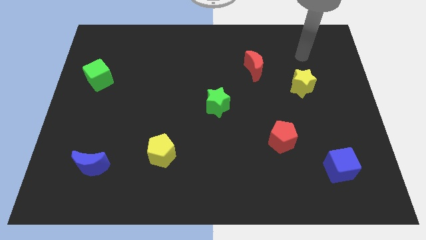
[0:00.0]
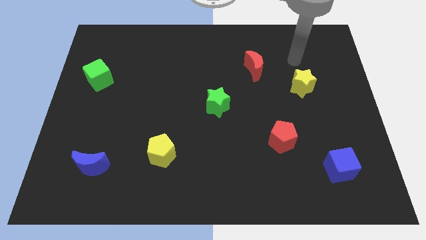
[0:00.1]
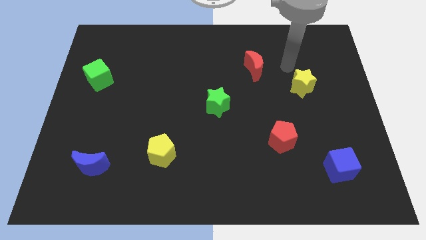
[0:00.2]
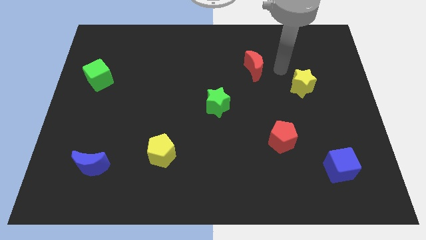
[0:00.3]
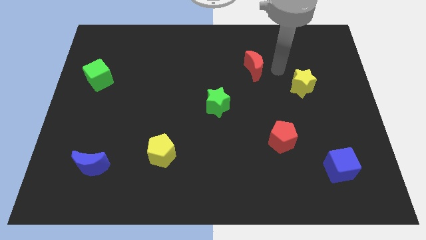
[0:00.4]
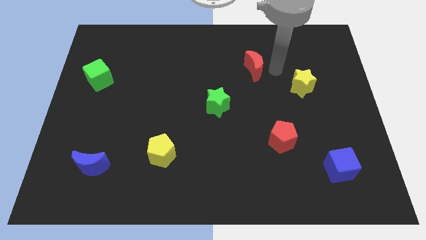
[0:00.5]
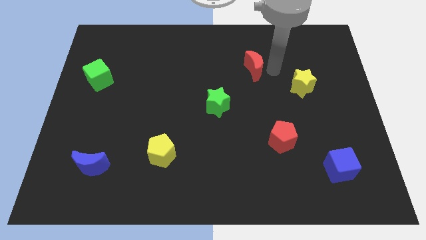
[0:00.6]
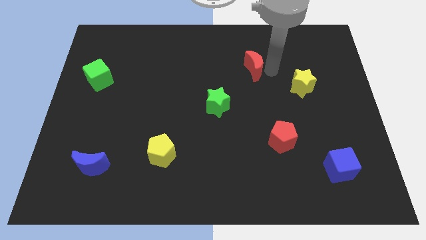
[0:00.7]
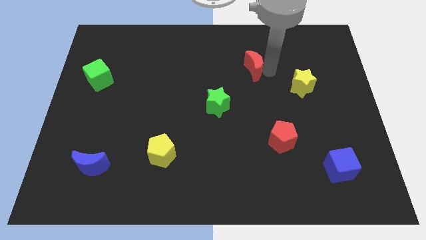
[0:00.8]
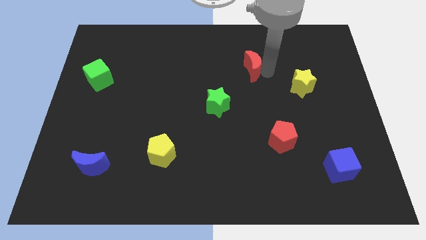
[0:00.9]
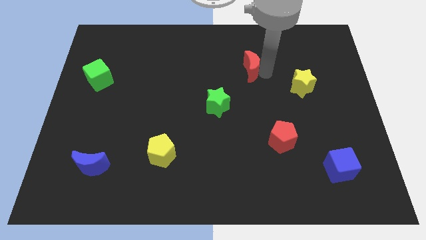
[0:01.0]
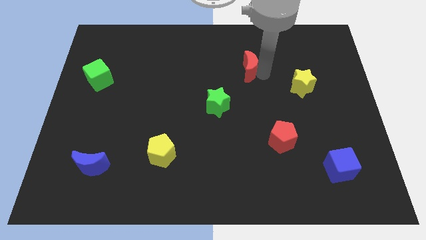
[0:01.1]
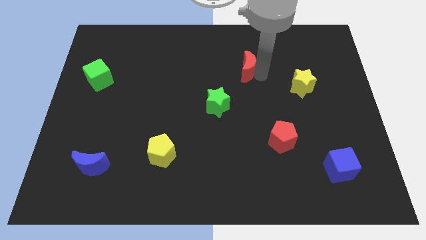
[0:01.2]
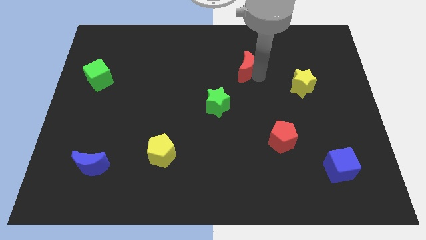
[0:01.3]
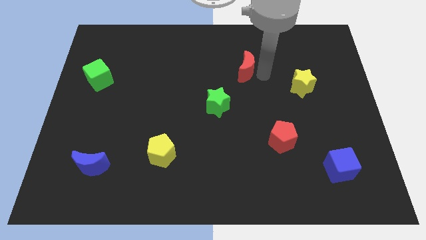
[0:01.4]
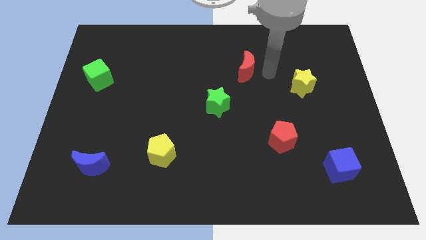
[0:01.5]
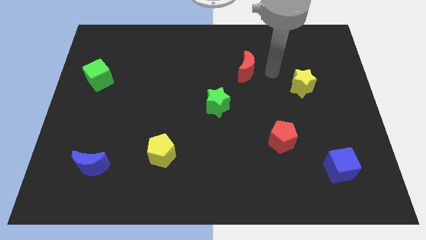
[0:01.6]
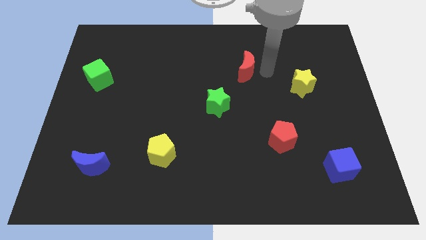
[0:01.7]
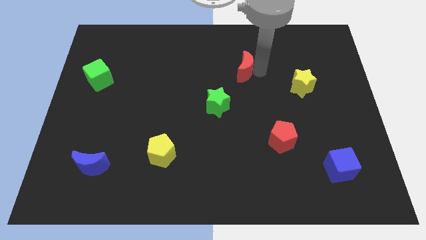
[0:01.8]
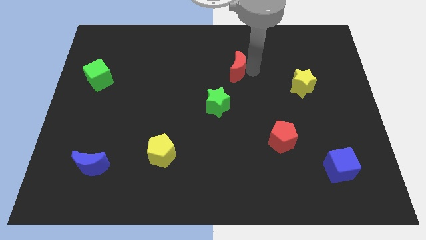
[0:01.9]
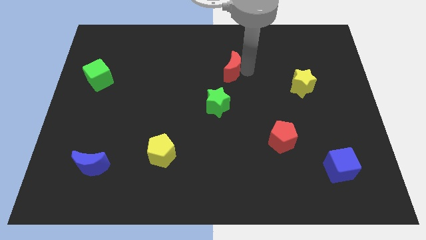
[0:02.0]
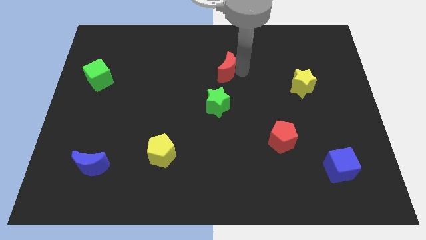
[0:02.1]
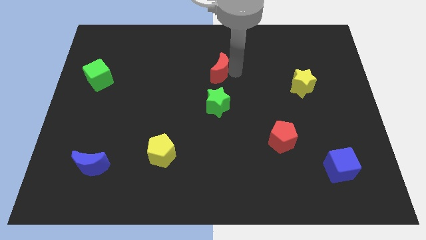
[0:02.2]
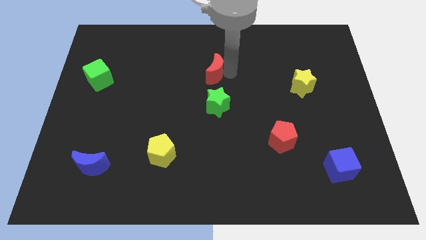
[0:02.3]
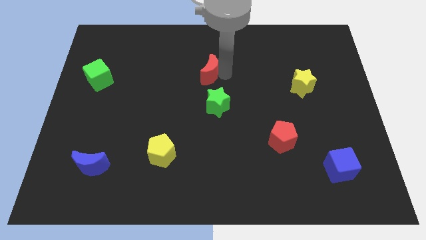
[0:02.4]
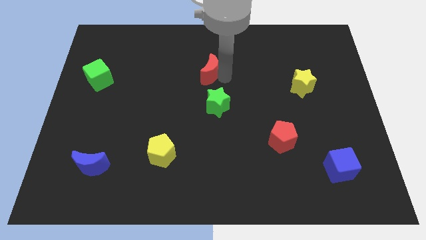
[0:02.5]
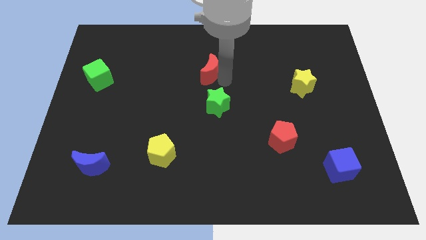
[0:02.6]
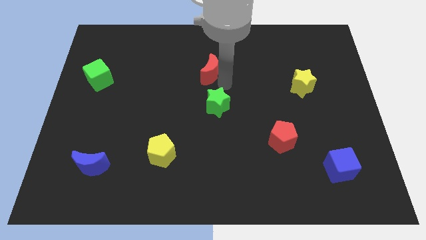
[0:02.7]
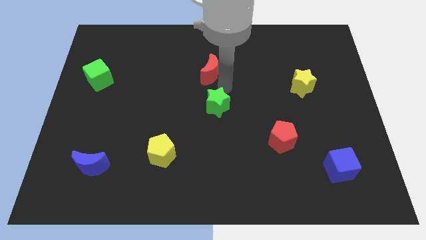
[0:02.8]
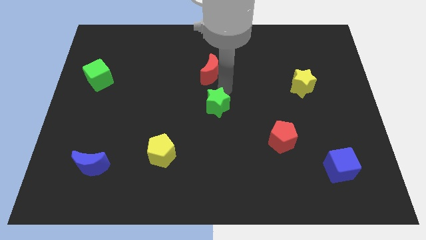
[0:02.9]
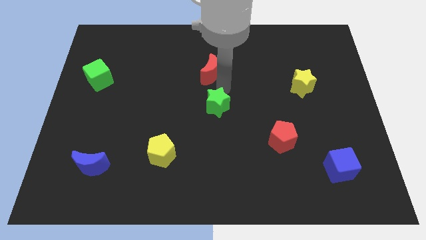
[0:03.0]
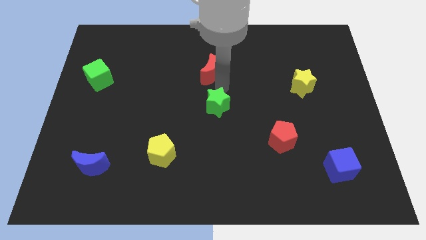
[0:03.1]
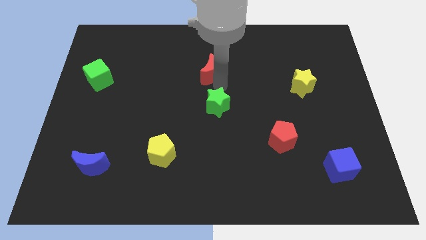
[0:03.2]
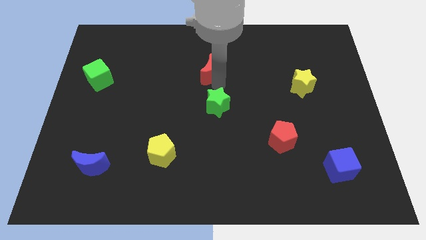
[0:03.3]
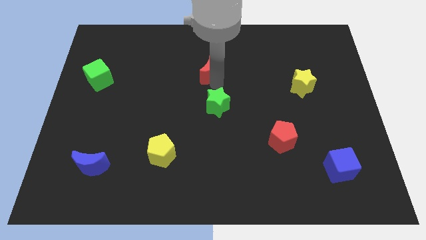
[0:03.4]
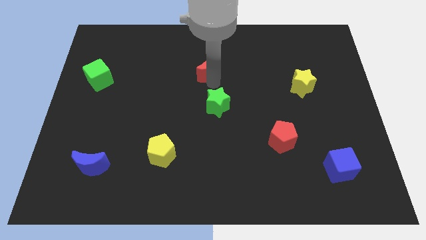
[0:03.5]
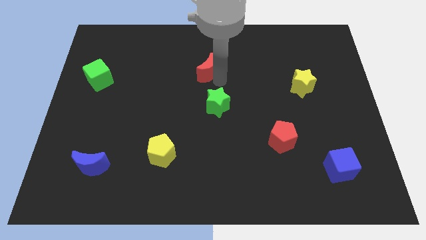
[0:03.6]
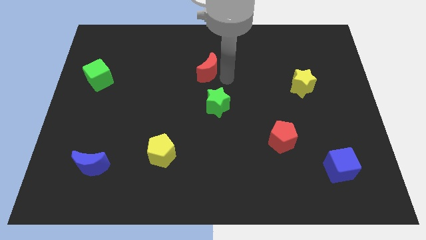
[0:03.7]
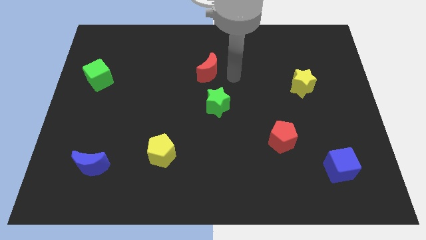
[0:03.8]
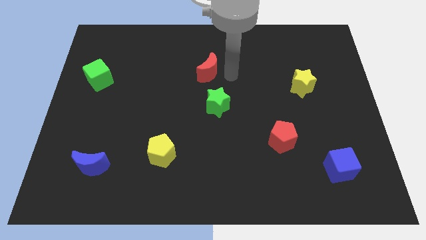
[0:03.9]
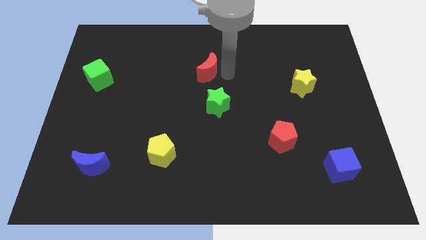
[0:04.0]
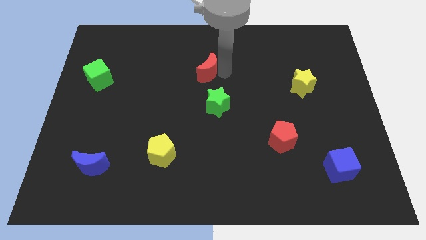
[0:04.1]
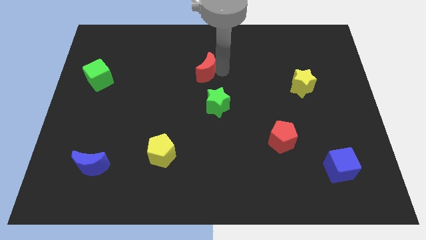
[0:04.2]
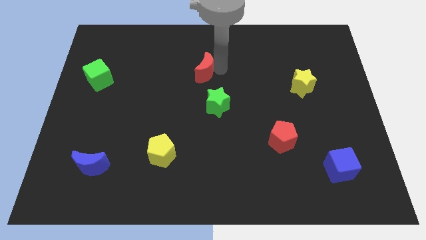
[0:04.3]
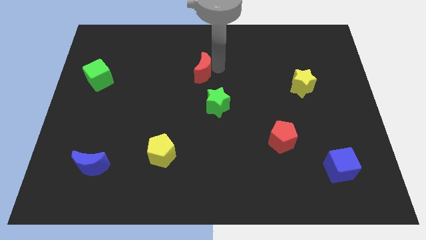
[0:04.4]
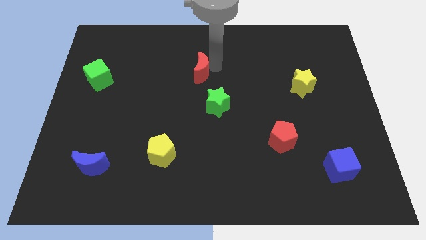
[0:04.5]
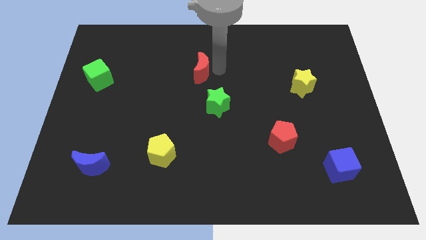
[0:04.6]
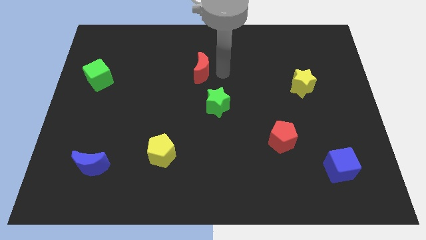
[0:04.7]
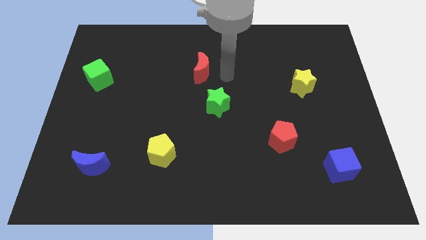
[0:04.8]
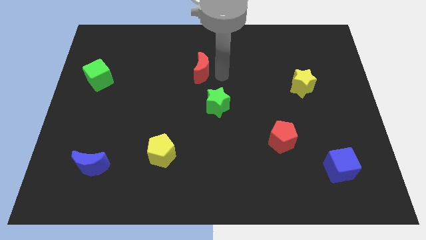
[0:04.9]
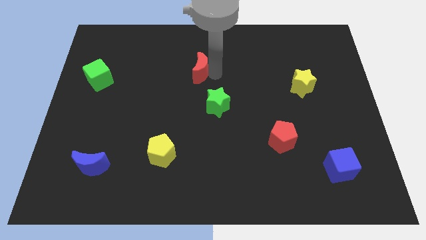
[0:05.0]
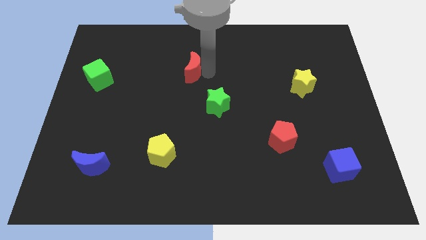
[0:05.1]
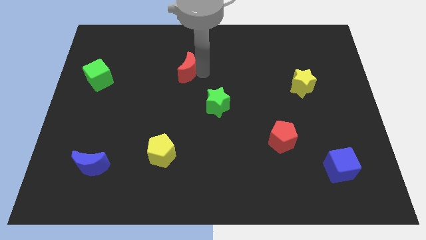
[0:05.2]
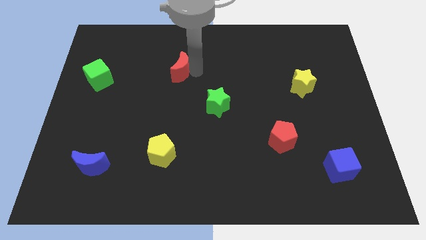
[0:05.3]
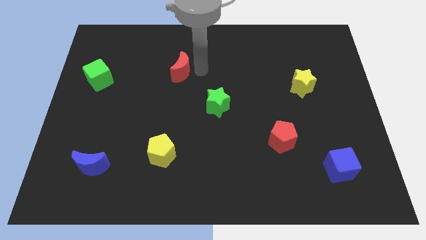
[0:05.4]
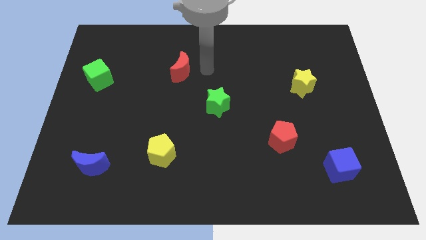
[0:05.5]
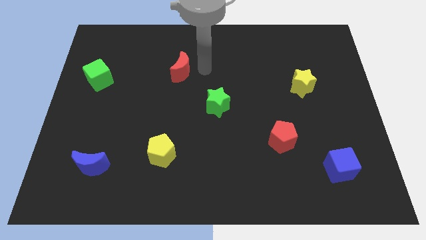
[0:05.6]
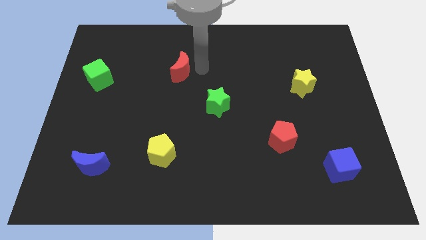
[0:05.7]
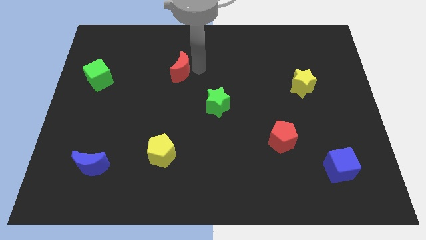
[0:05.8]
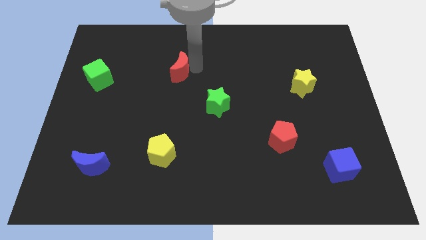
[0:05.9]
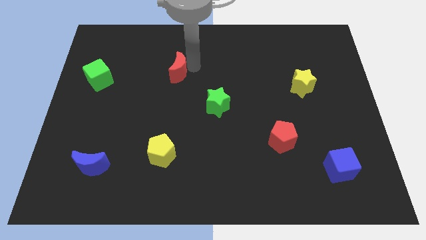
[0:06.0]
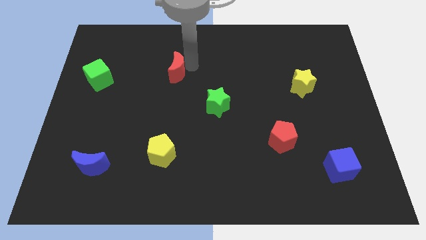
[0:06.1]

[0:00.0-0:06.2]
slide the red moon to the left

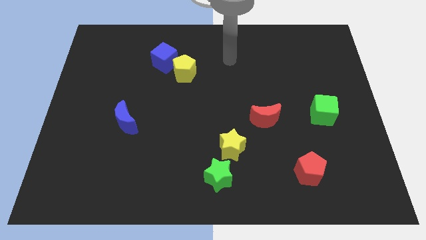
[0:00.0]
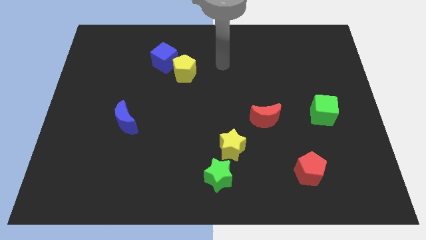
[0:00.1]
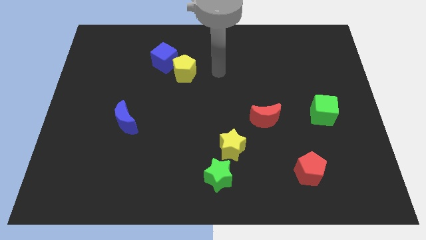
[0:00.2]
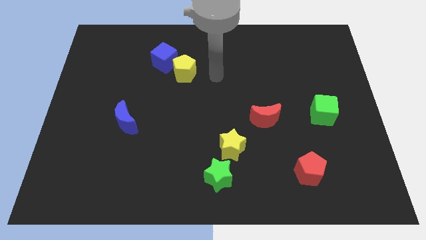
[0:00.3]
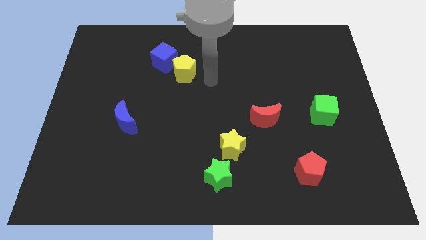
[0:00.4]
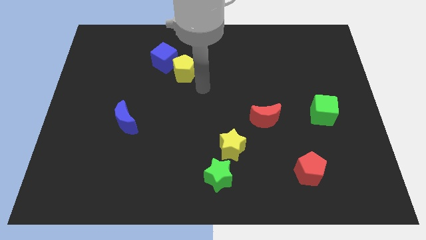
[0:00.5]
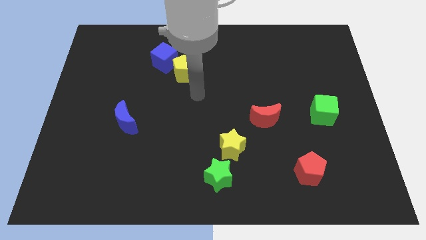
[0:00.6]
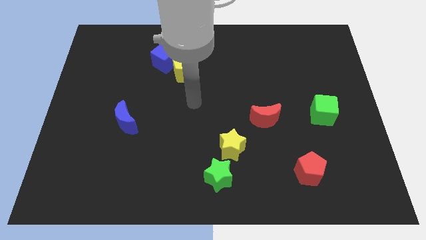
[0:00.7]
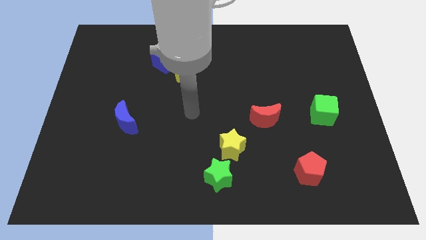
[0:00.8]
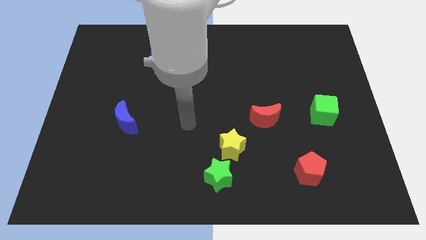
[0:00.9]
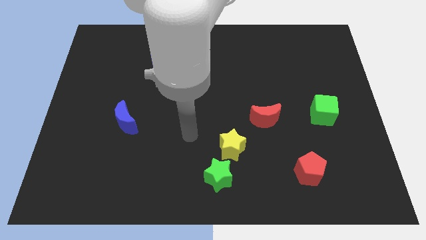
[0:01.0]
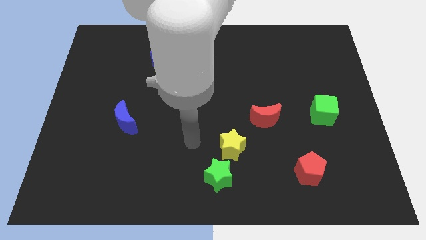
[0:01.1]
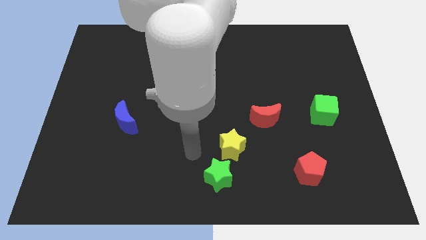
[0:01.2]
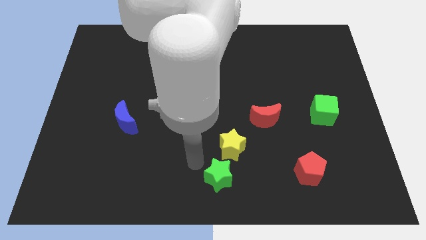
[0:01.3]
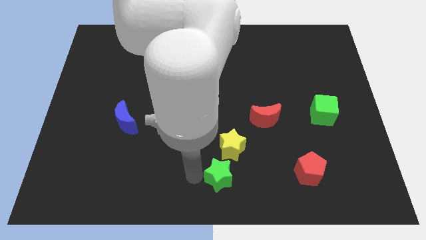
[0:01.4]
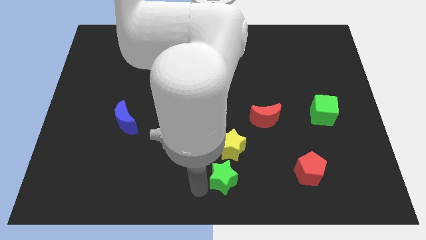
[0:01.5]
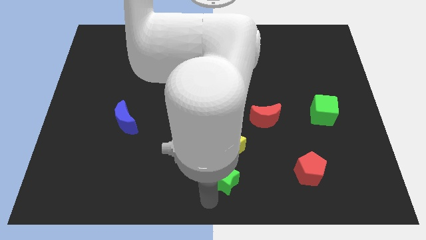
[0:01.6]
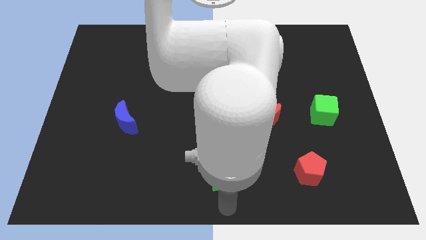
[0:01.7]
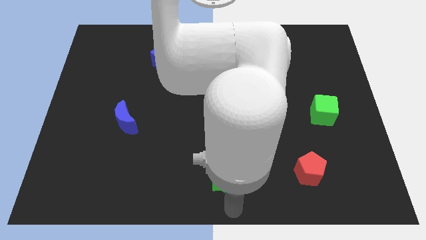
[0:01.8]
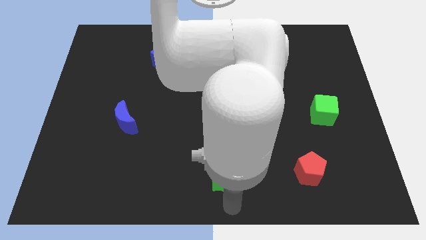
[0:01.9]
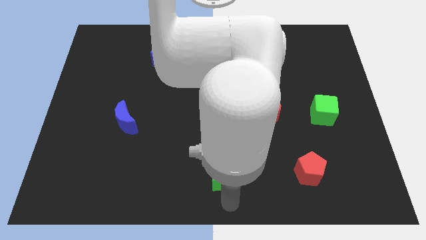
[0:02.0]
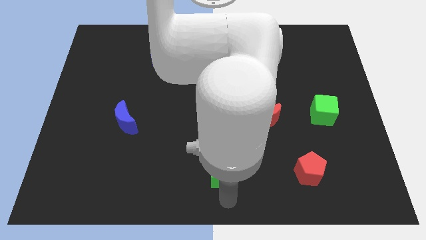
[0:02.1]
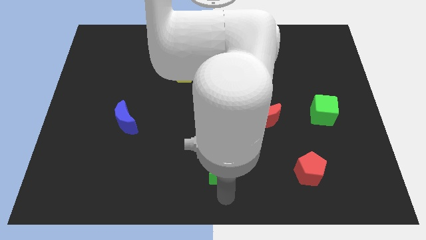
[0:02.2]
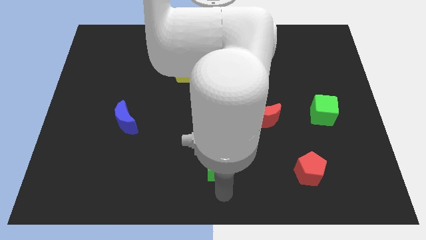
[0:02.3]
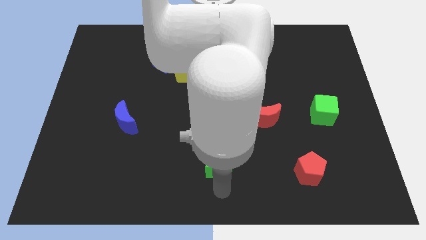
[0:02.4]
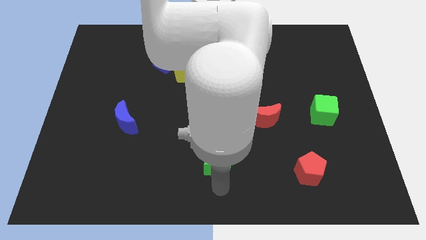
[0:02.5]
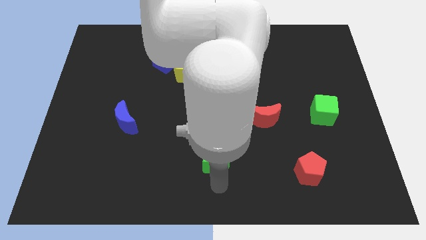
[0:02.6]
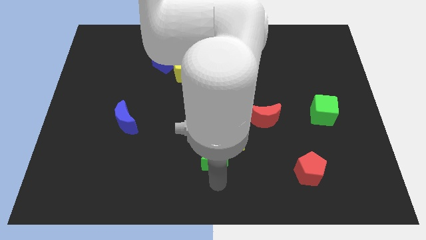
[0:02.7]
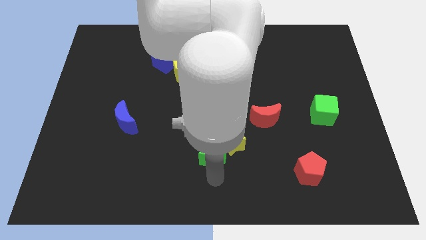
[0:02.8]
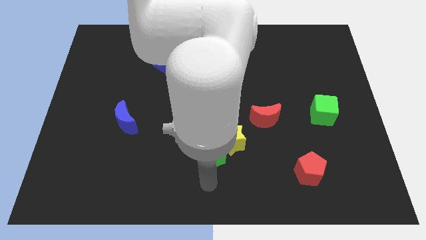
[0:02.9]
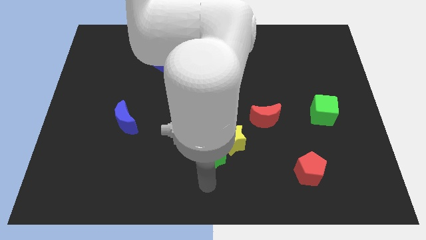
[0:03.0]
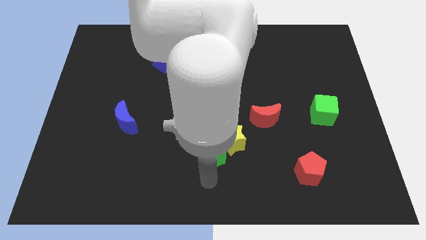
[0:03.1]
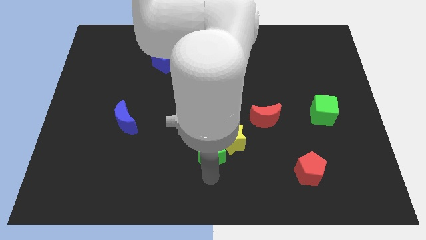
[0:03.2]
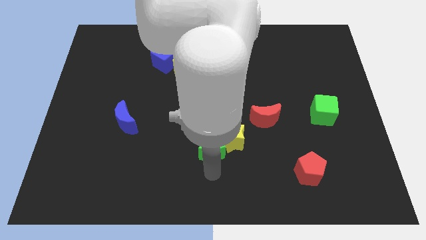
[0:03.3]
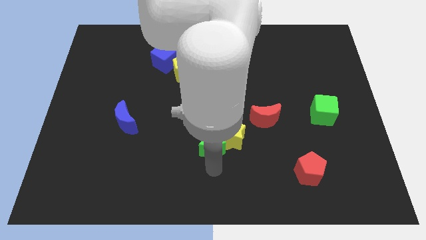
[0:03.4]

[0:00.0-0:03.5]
slightly move the green star upwards
